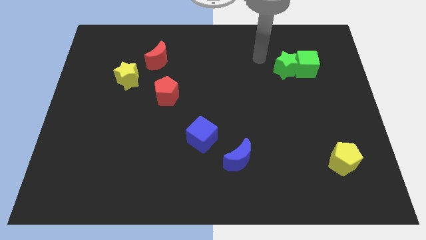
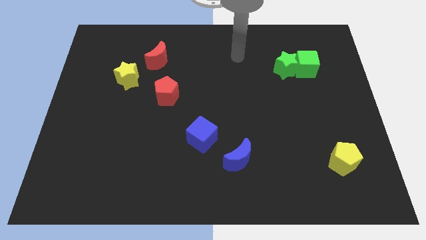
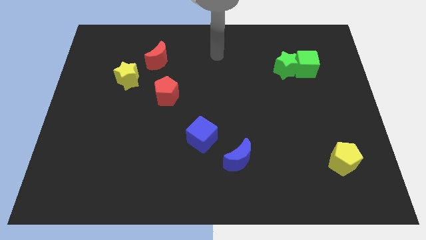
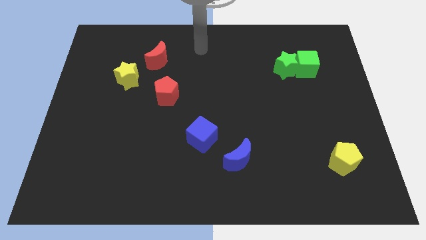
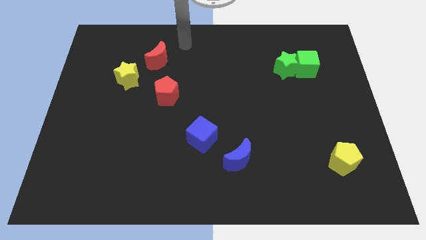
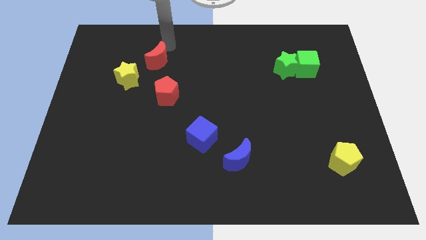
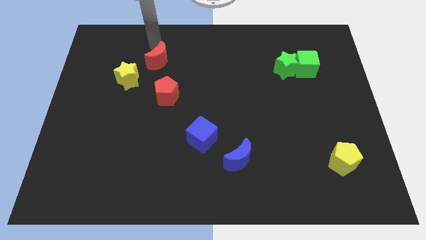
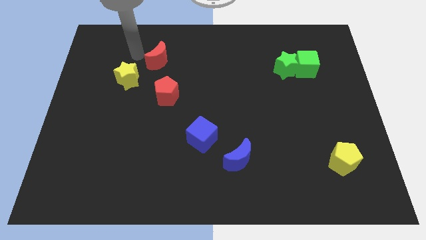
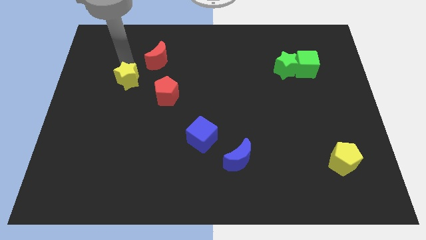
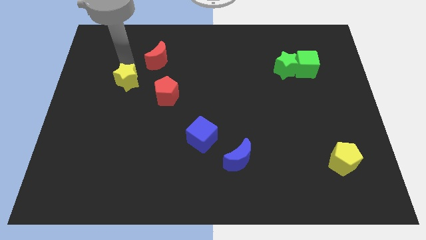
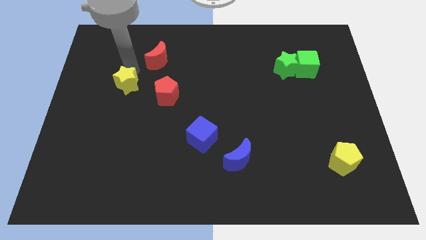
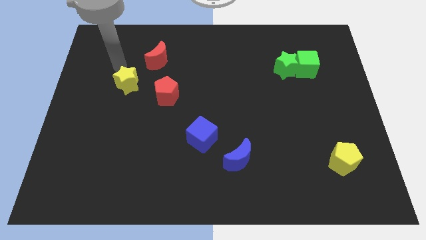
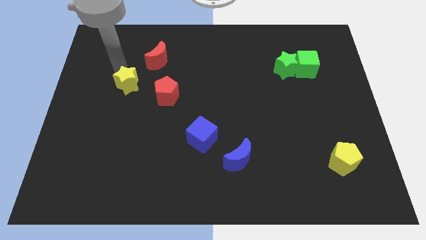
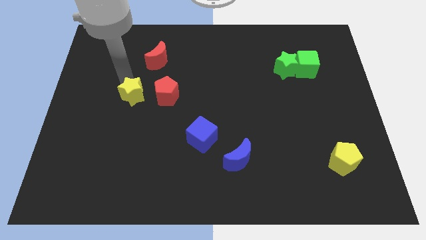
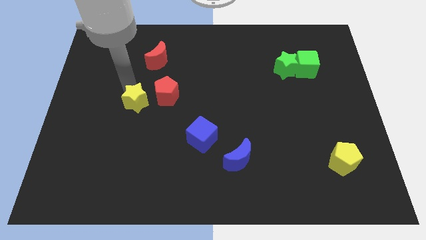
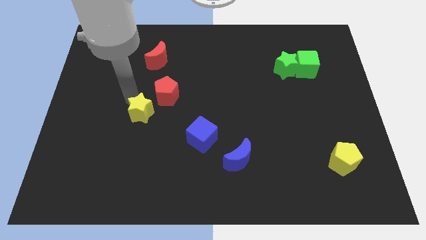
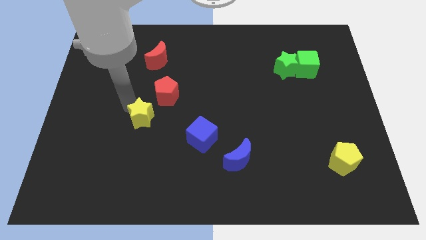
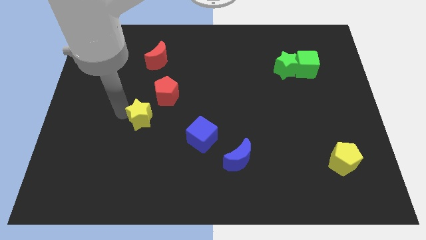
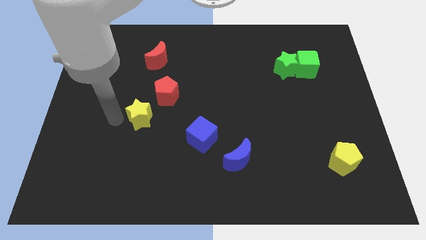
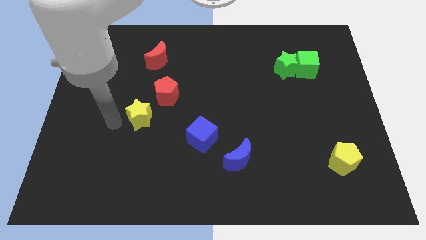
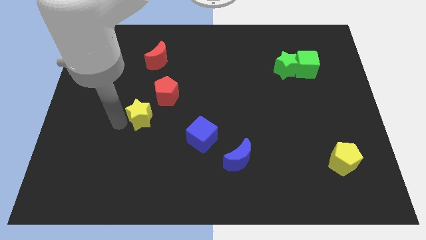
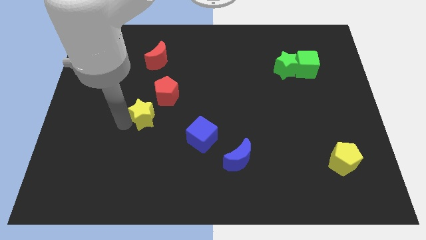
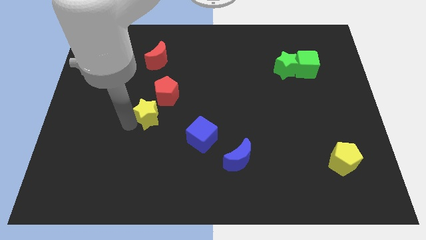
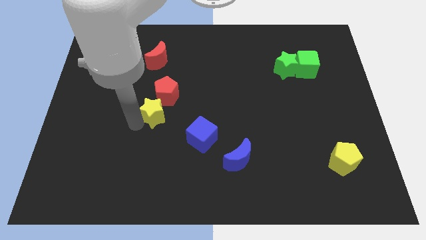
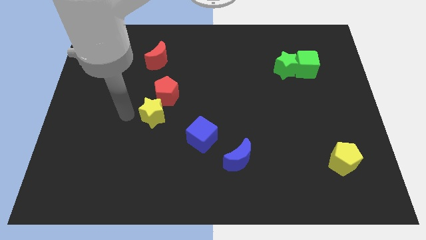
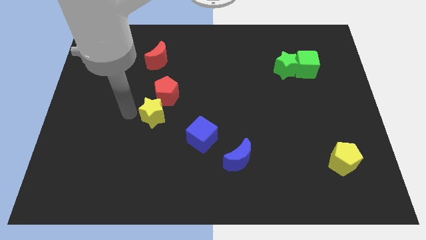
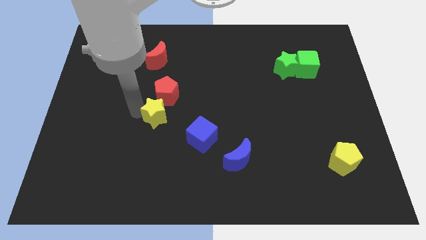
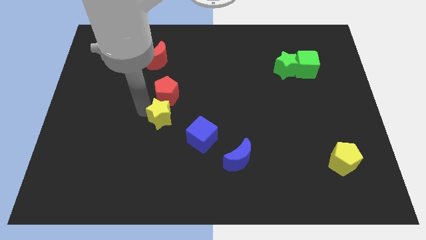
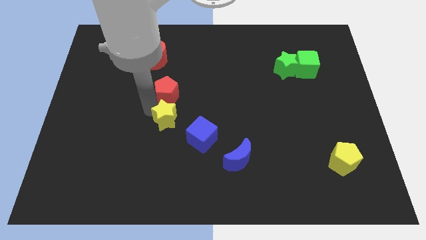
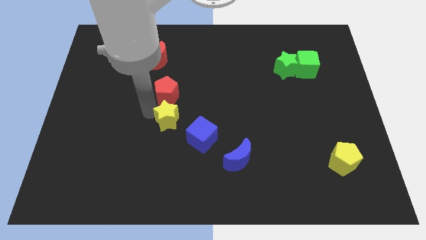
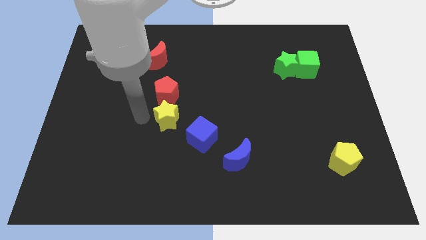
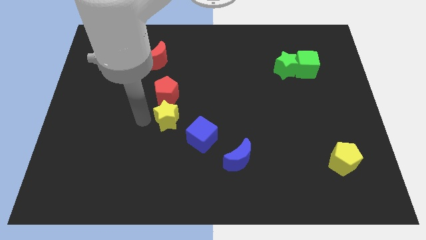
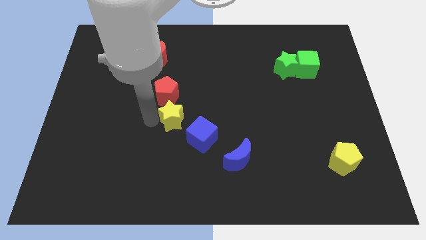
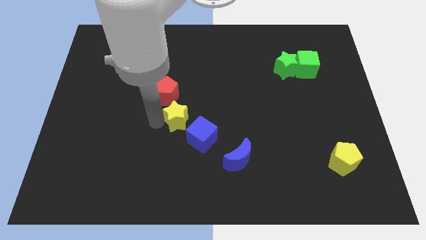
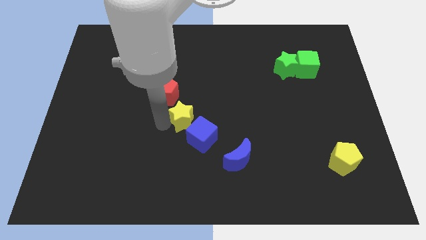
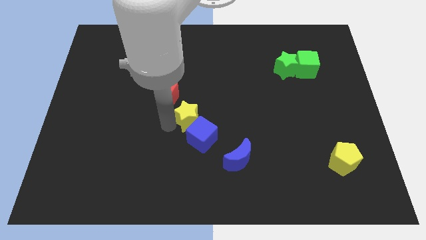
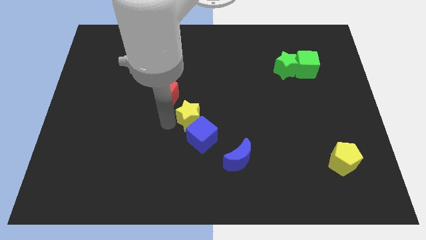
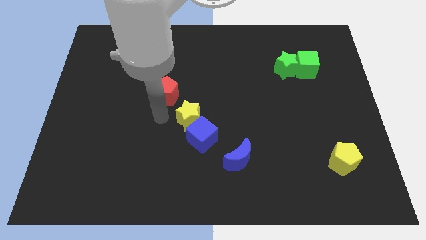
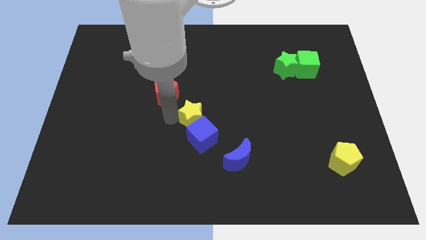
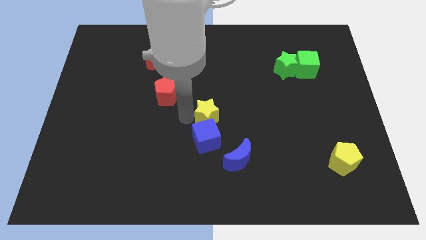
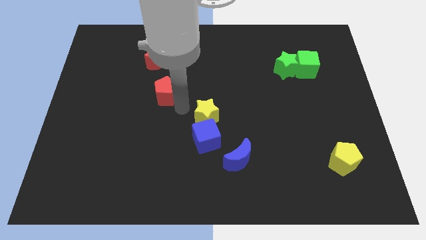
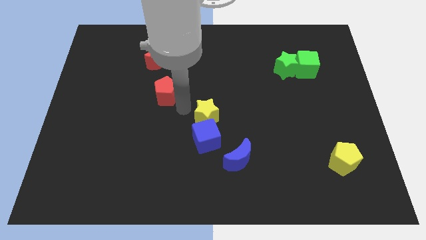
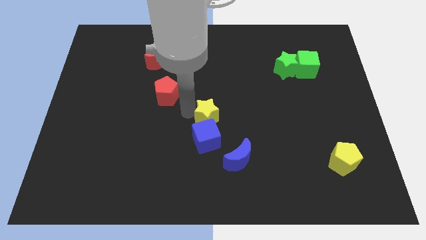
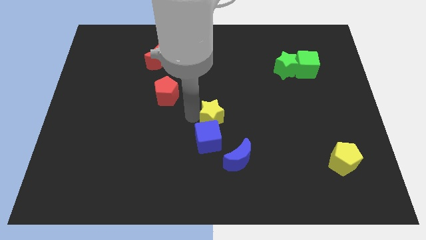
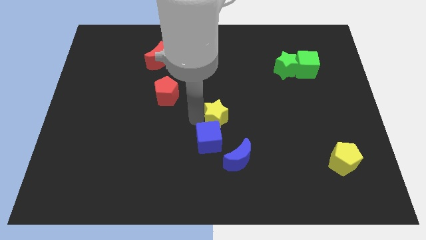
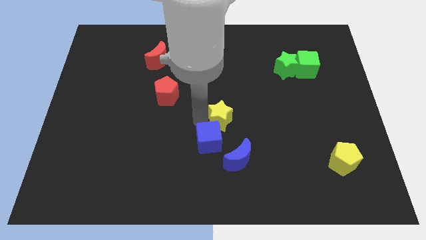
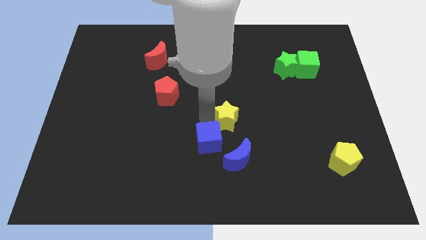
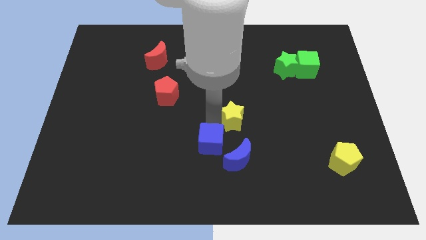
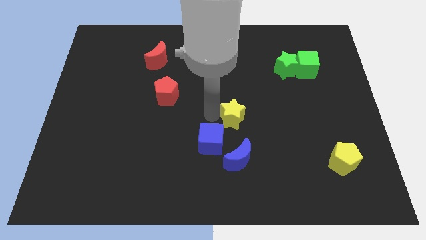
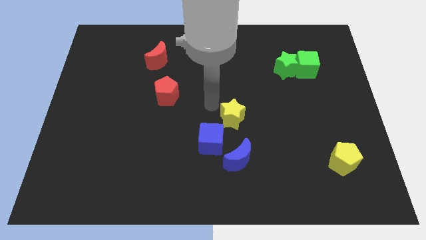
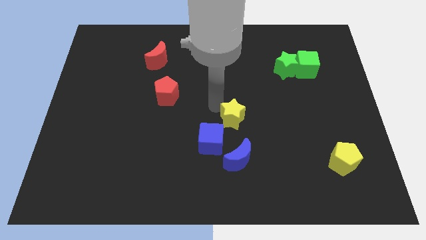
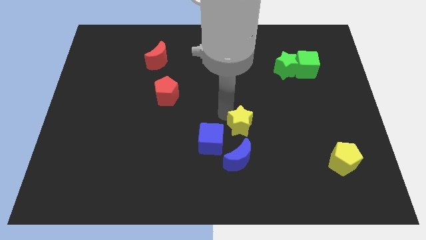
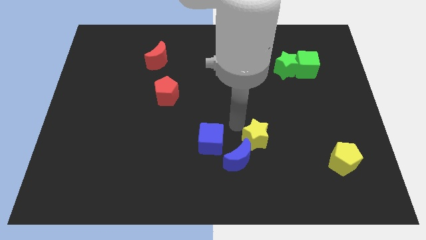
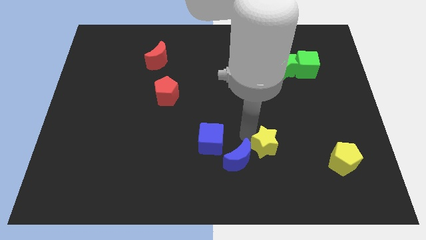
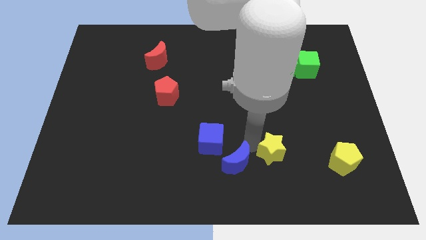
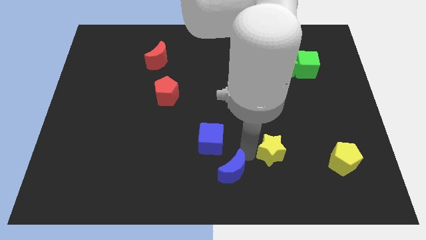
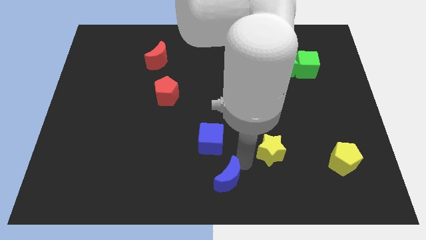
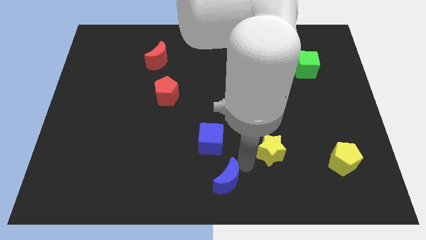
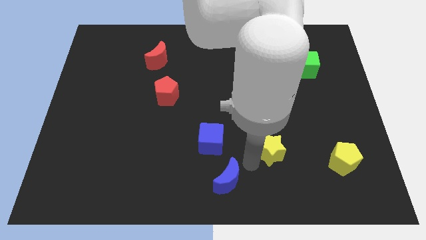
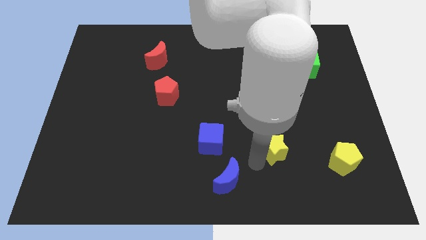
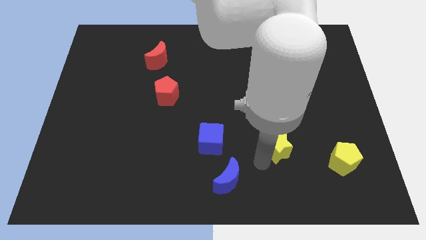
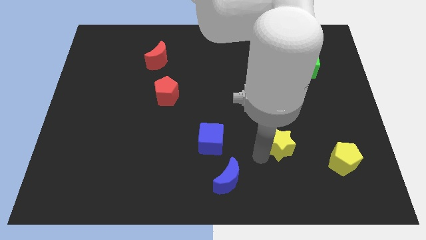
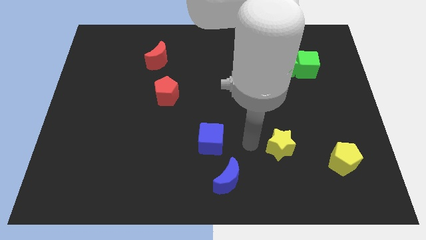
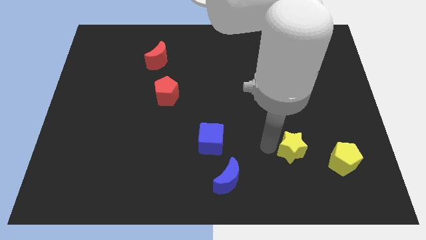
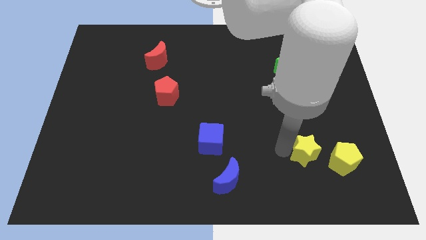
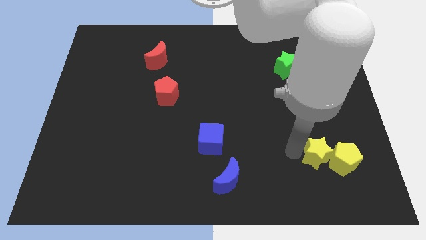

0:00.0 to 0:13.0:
slide the yellow star to the yellow pentagon

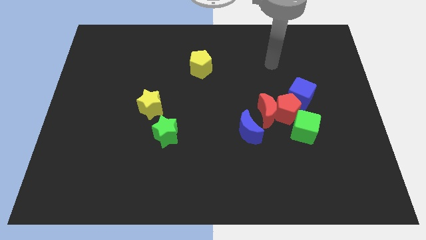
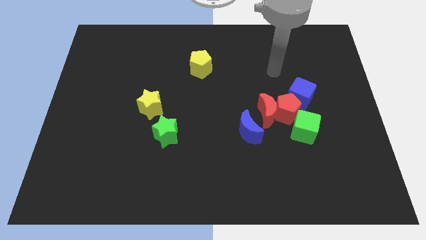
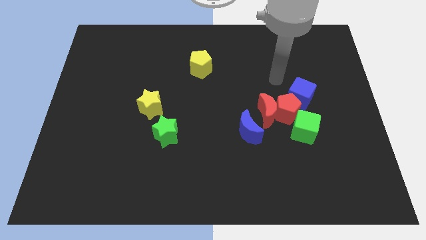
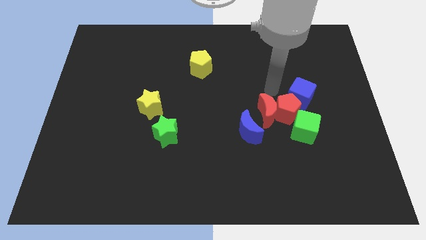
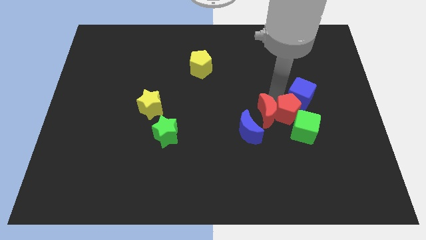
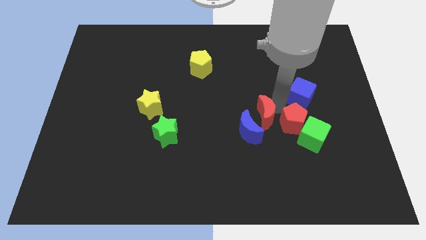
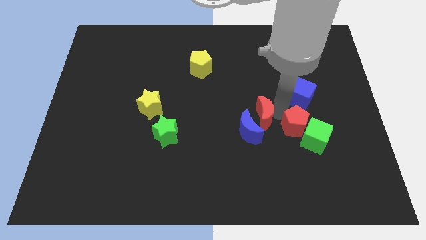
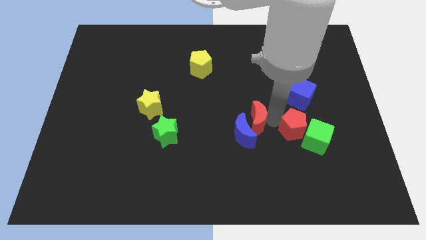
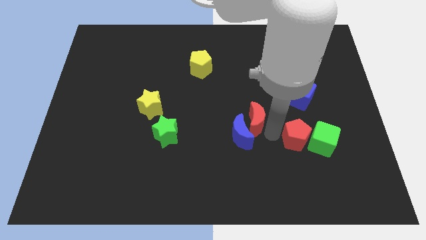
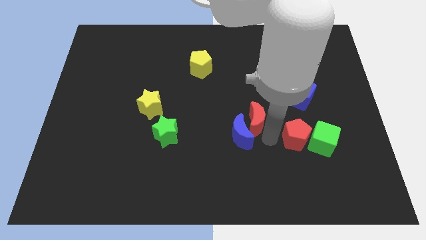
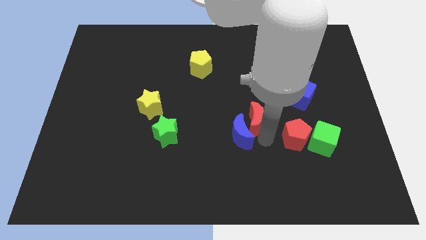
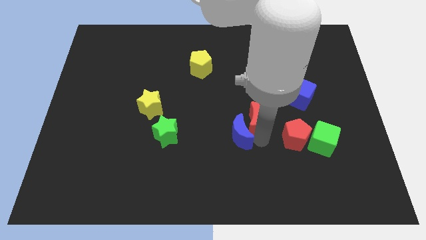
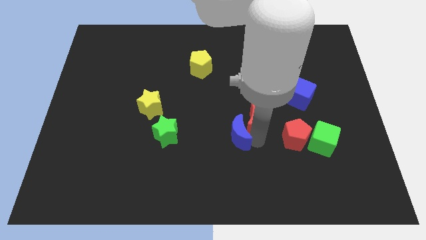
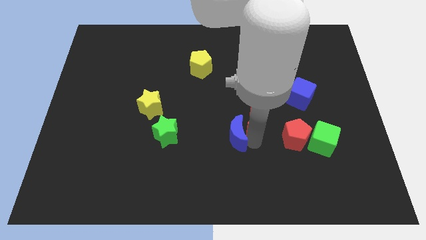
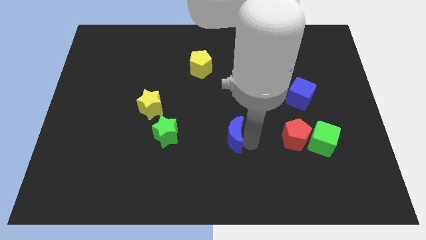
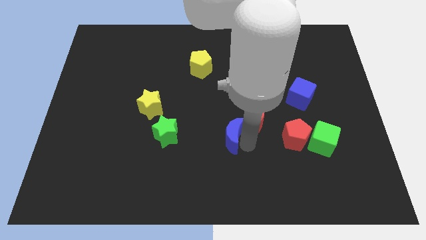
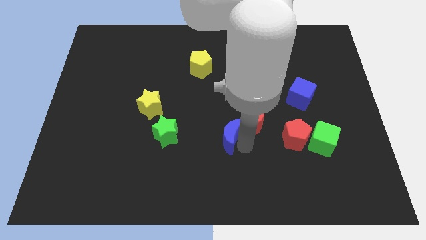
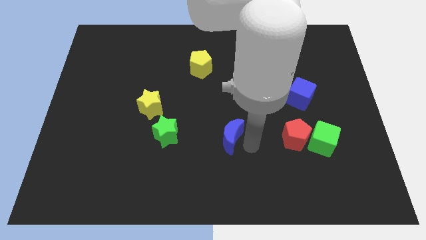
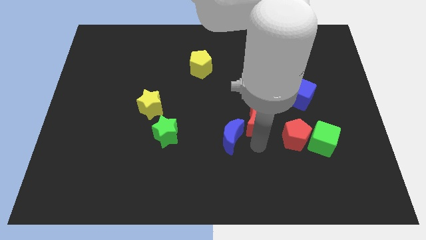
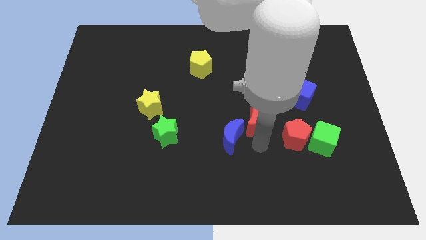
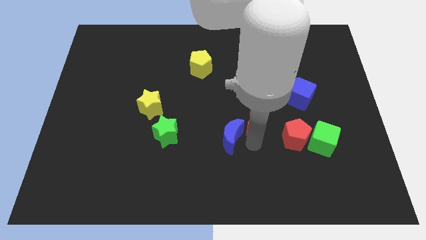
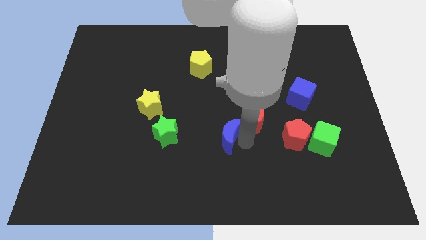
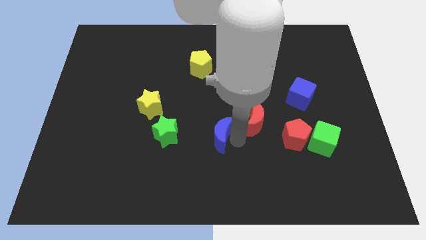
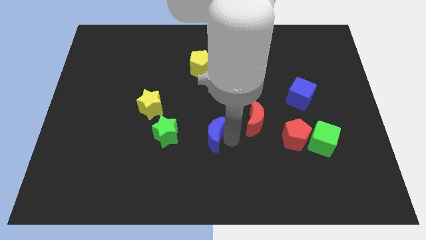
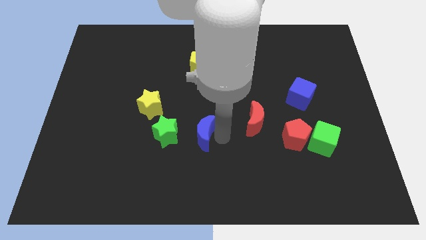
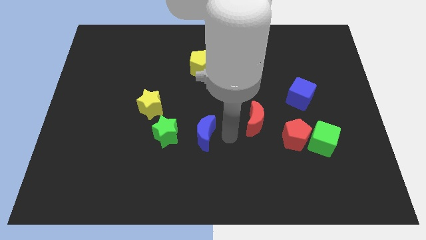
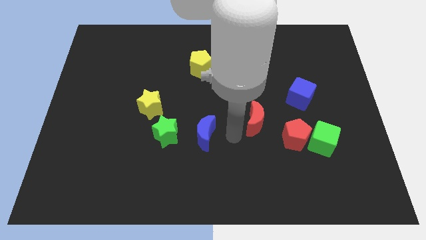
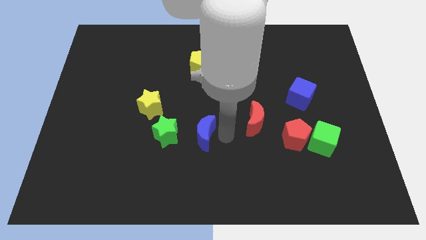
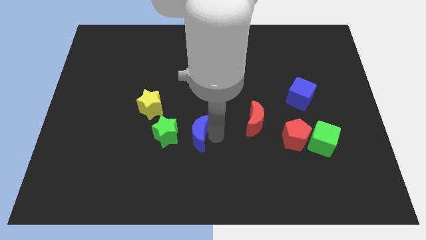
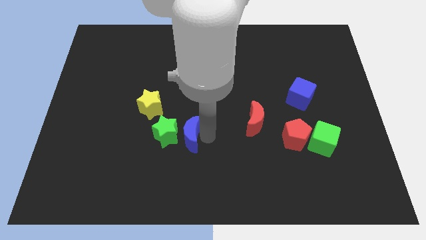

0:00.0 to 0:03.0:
slide the blue moon towards the green star
